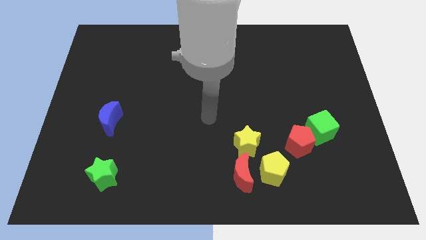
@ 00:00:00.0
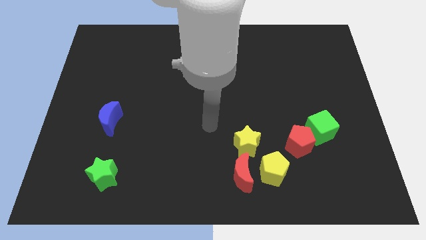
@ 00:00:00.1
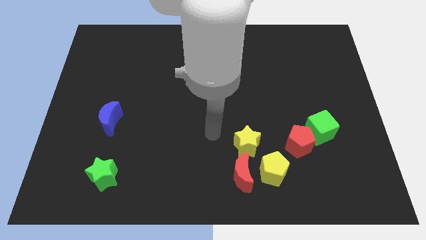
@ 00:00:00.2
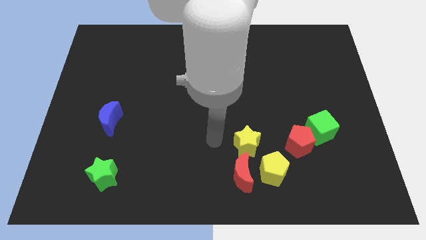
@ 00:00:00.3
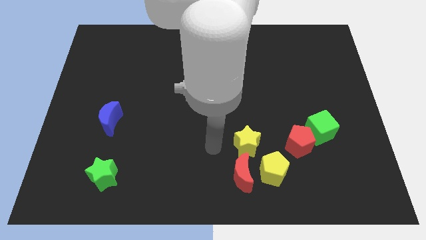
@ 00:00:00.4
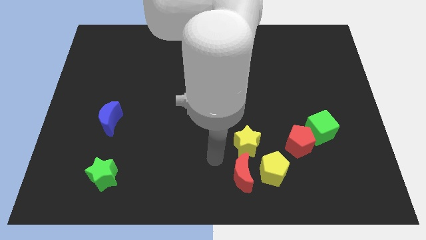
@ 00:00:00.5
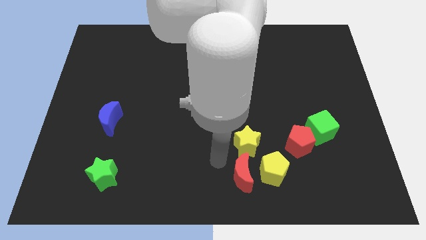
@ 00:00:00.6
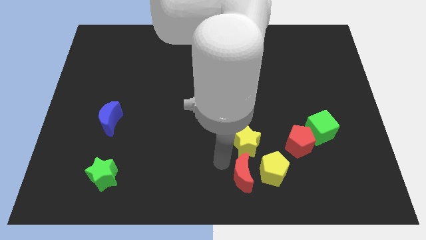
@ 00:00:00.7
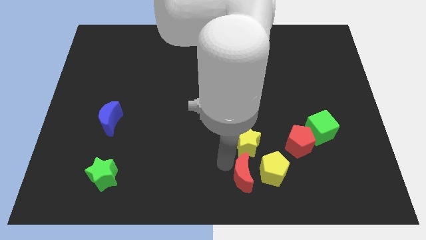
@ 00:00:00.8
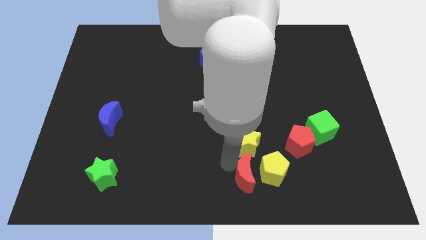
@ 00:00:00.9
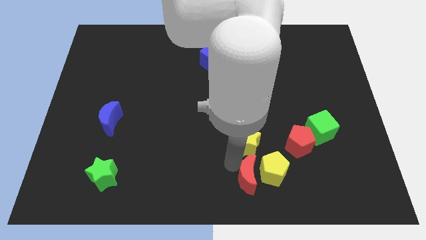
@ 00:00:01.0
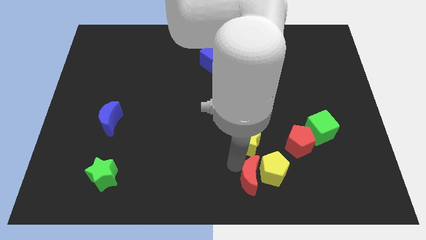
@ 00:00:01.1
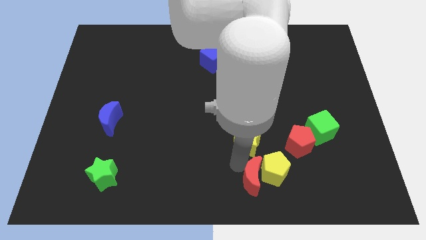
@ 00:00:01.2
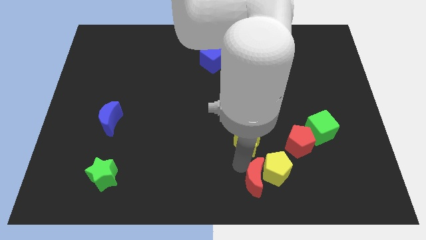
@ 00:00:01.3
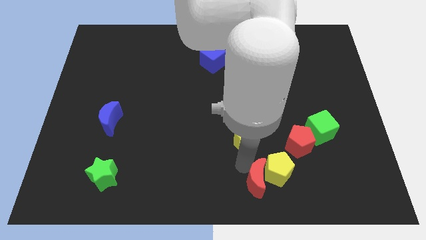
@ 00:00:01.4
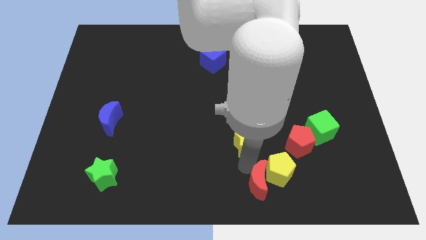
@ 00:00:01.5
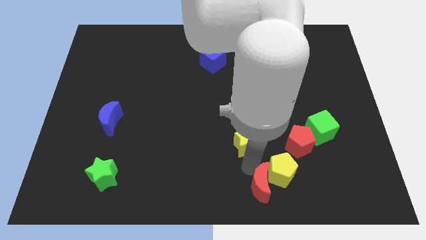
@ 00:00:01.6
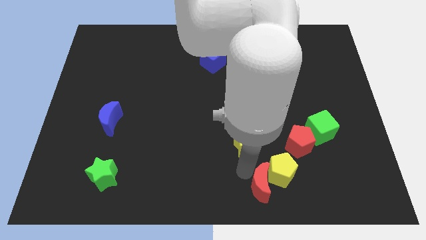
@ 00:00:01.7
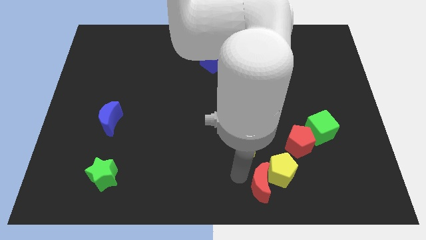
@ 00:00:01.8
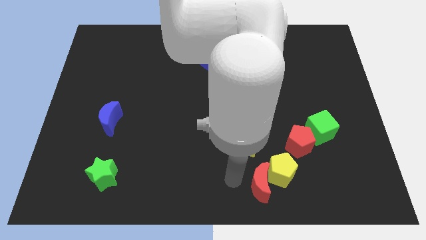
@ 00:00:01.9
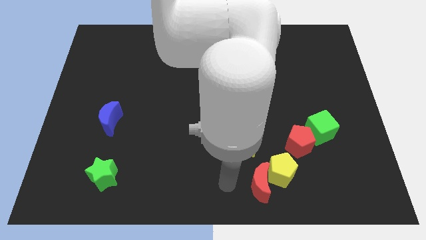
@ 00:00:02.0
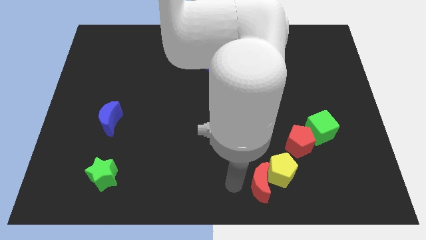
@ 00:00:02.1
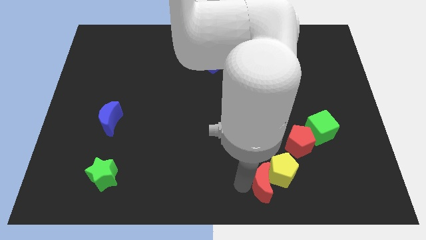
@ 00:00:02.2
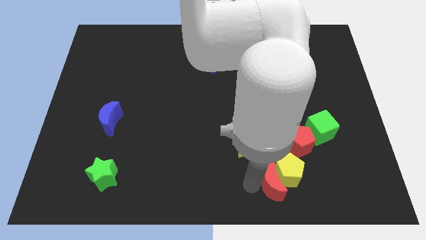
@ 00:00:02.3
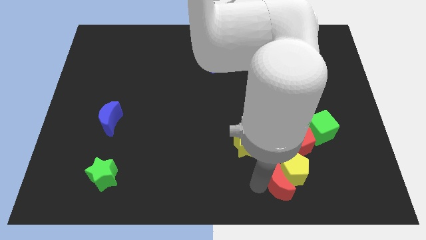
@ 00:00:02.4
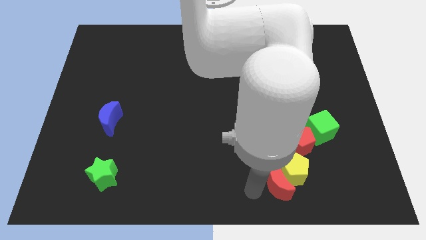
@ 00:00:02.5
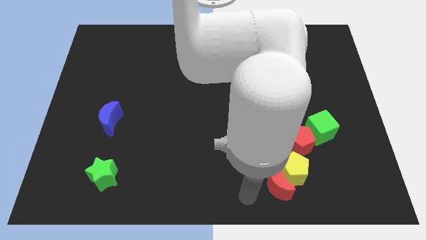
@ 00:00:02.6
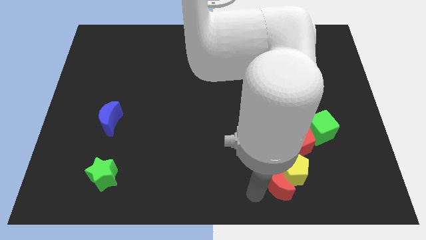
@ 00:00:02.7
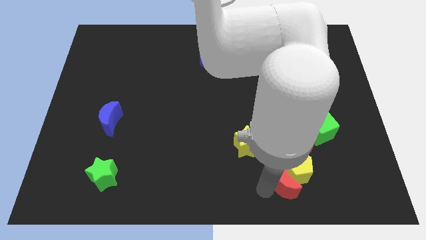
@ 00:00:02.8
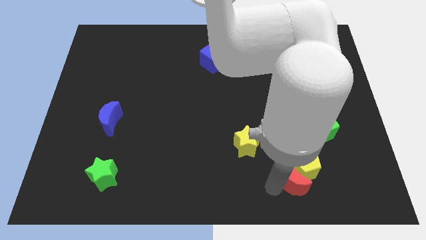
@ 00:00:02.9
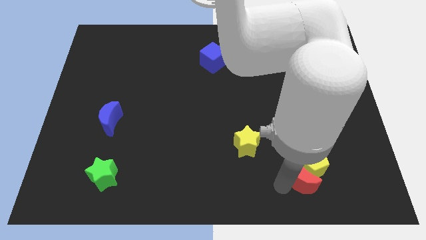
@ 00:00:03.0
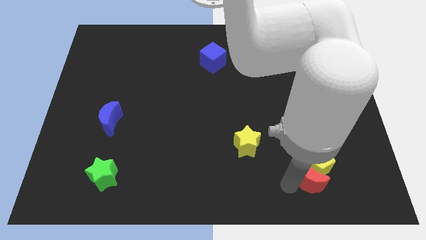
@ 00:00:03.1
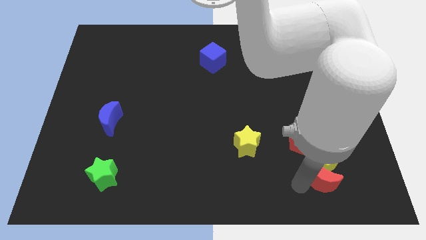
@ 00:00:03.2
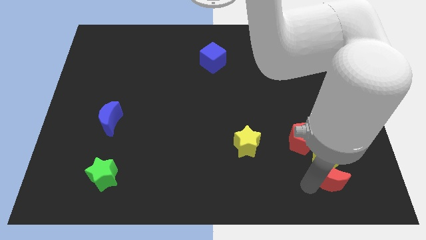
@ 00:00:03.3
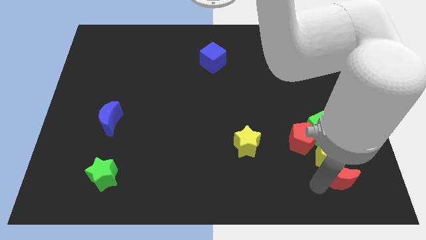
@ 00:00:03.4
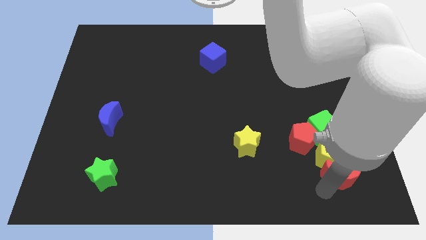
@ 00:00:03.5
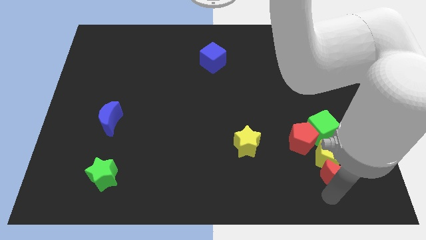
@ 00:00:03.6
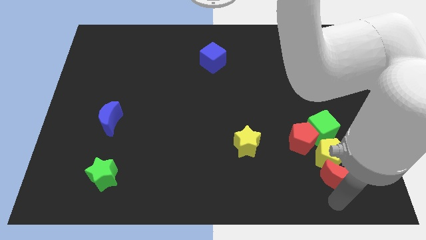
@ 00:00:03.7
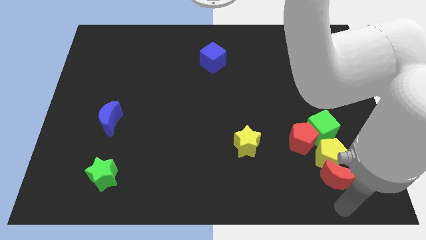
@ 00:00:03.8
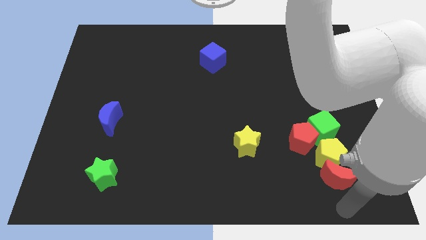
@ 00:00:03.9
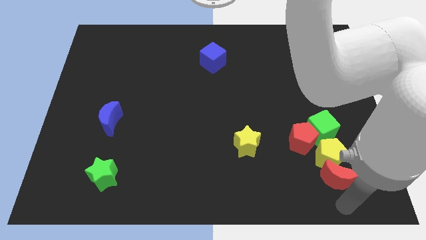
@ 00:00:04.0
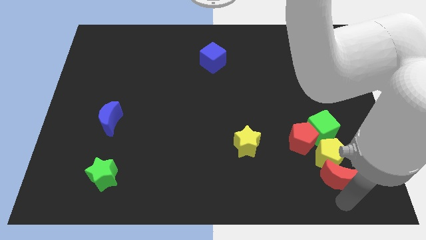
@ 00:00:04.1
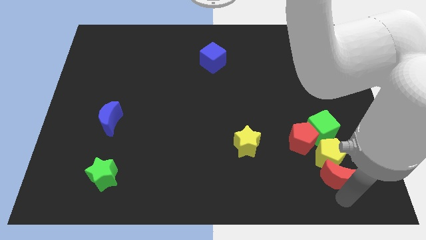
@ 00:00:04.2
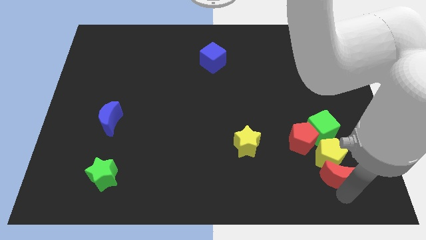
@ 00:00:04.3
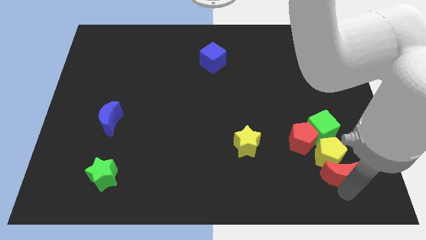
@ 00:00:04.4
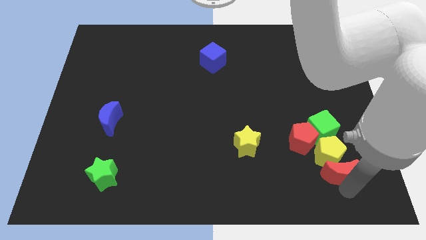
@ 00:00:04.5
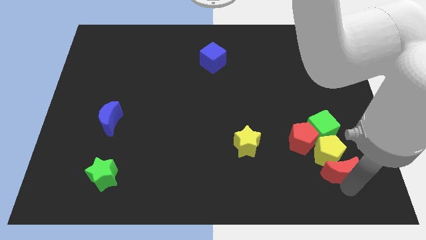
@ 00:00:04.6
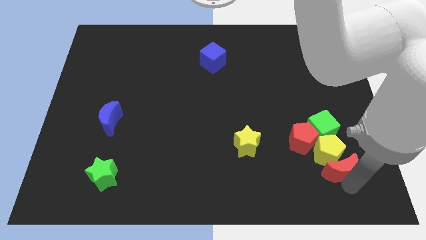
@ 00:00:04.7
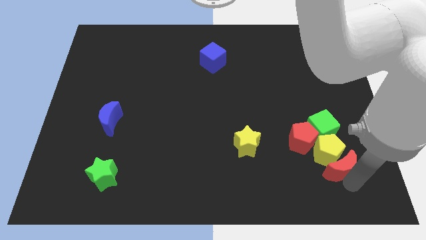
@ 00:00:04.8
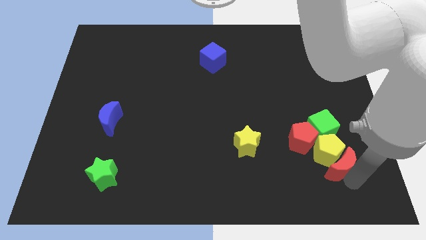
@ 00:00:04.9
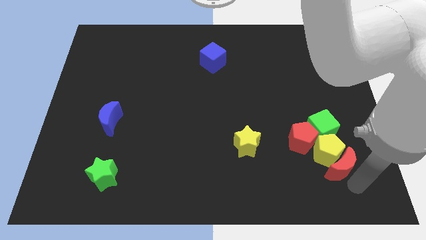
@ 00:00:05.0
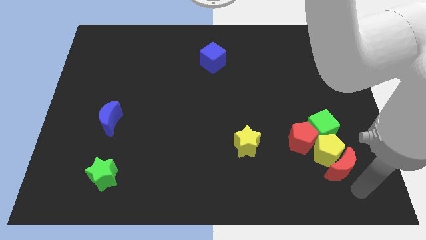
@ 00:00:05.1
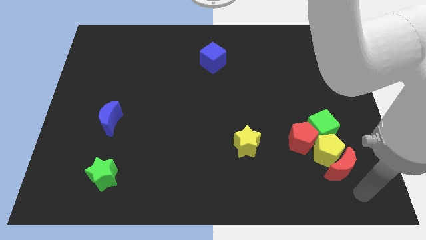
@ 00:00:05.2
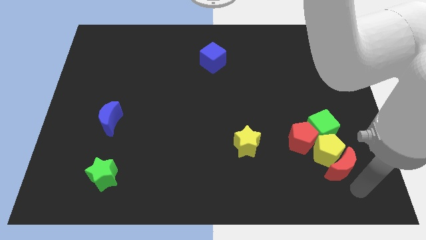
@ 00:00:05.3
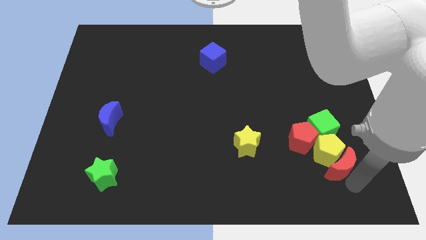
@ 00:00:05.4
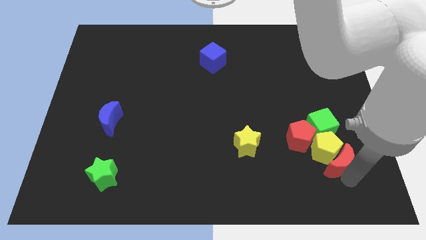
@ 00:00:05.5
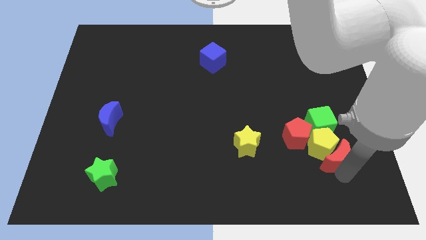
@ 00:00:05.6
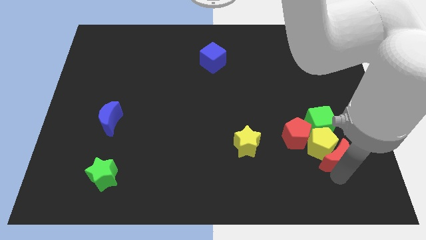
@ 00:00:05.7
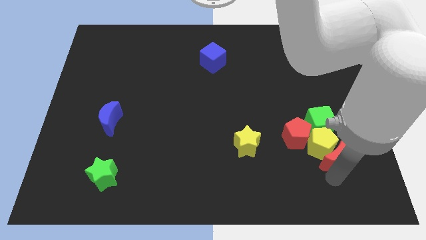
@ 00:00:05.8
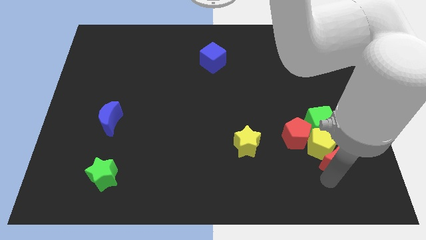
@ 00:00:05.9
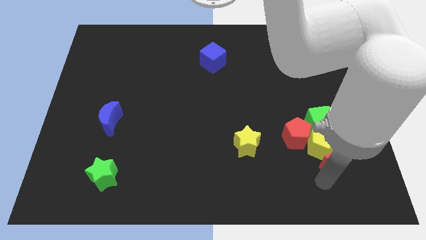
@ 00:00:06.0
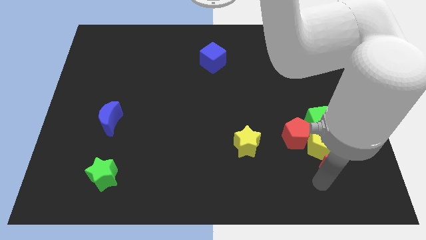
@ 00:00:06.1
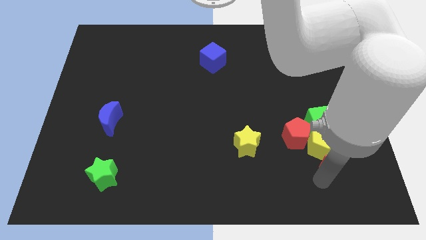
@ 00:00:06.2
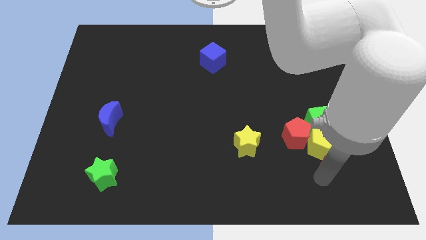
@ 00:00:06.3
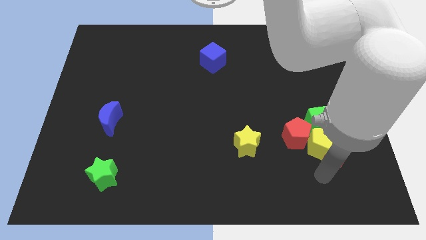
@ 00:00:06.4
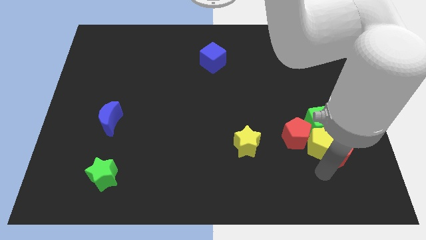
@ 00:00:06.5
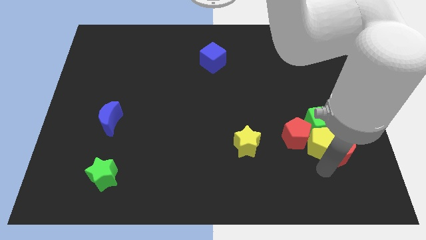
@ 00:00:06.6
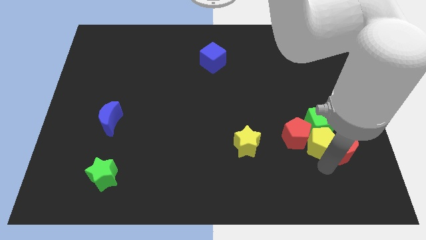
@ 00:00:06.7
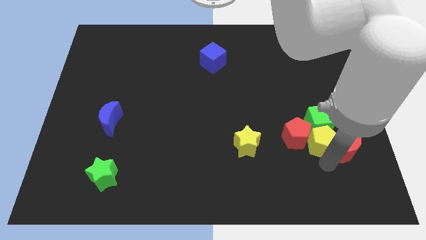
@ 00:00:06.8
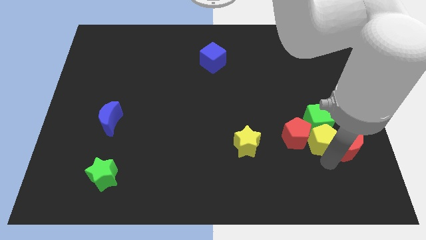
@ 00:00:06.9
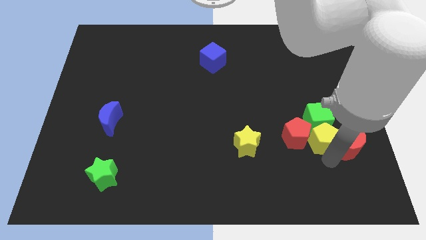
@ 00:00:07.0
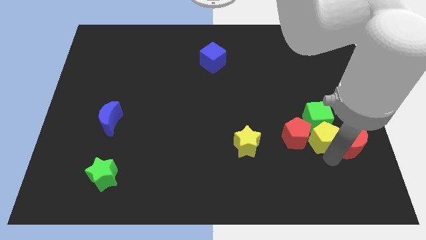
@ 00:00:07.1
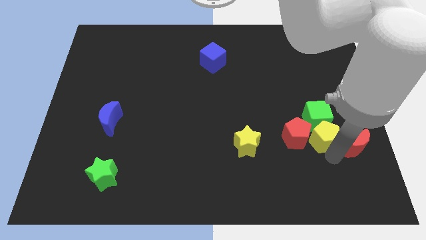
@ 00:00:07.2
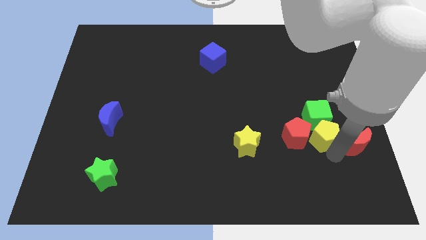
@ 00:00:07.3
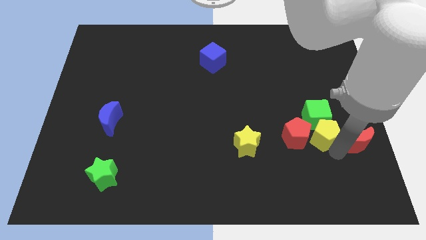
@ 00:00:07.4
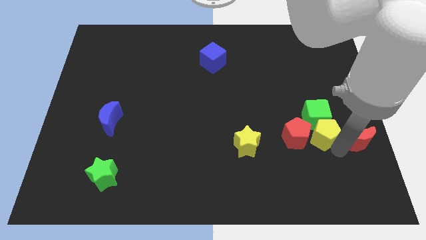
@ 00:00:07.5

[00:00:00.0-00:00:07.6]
put the red moon to the right side of the board
